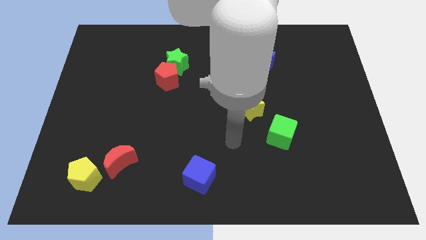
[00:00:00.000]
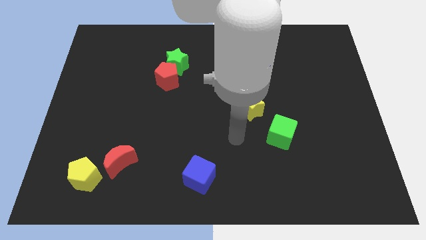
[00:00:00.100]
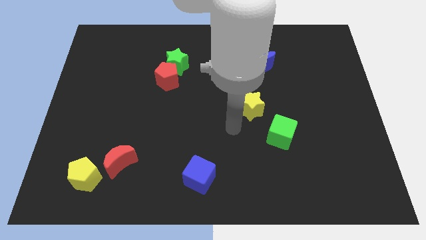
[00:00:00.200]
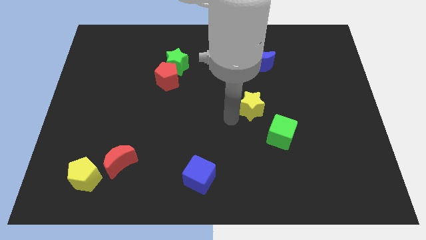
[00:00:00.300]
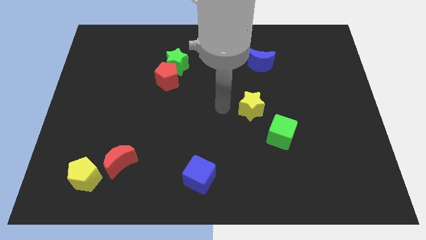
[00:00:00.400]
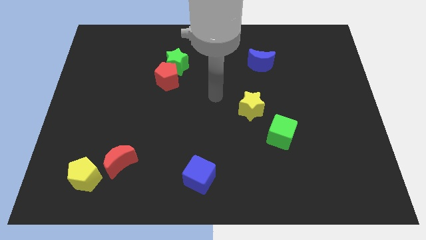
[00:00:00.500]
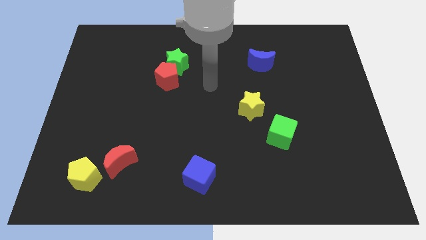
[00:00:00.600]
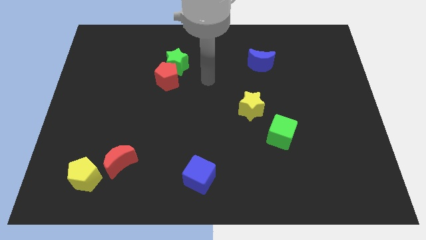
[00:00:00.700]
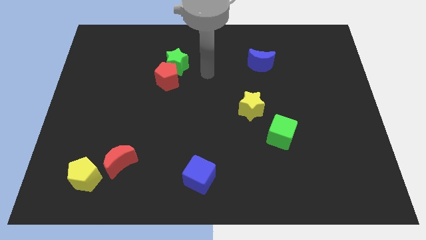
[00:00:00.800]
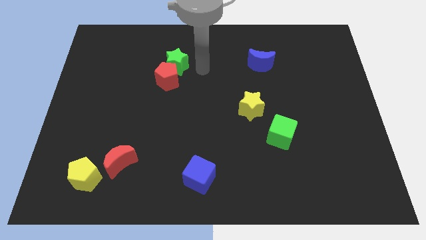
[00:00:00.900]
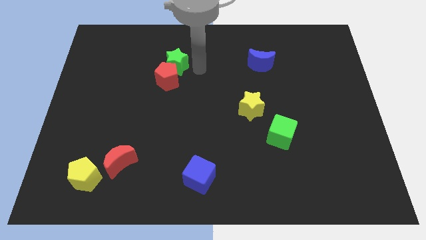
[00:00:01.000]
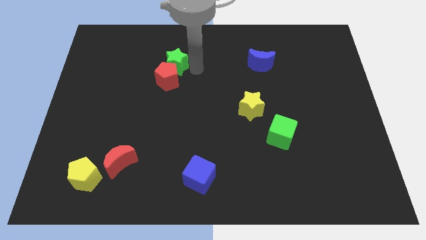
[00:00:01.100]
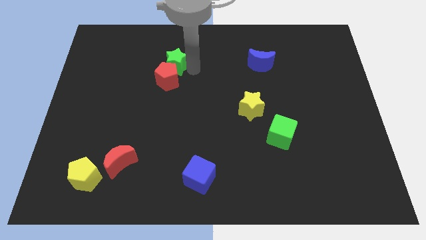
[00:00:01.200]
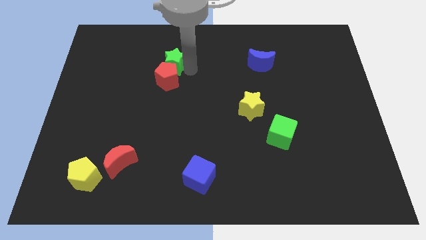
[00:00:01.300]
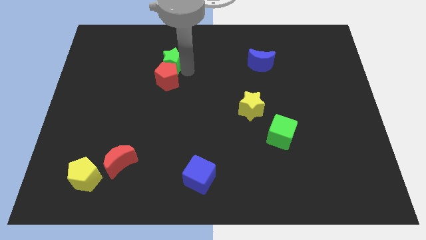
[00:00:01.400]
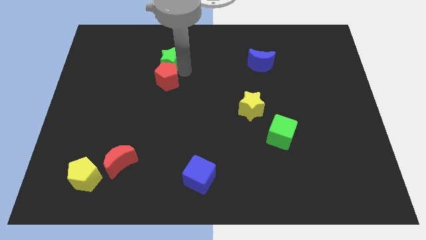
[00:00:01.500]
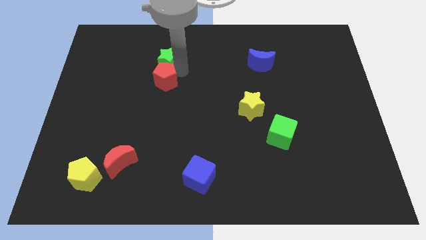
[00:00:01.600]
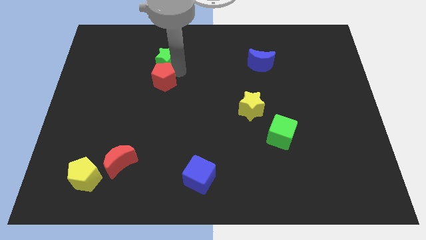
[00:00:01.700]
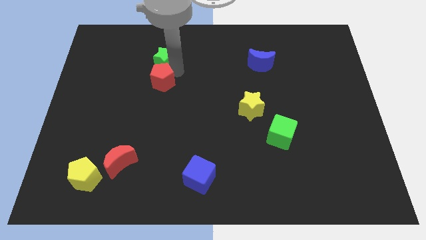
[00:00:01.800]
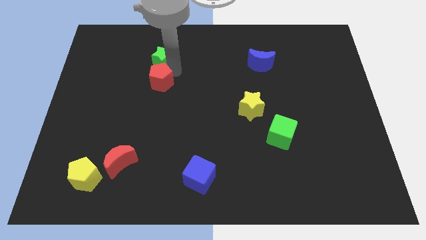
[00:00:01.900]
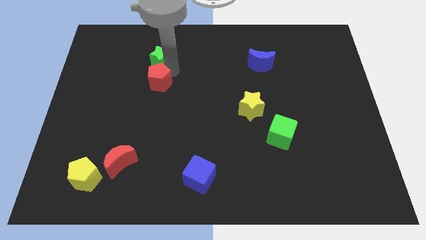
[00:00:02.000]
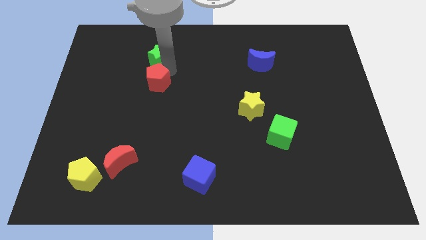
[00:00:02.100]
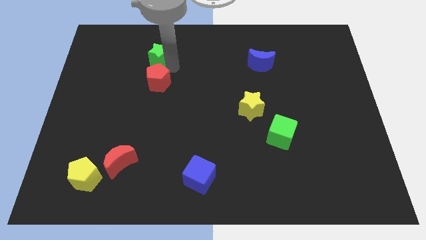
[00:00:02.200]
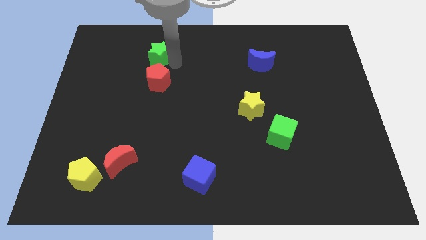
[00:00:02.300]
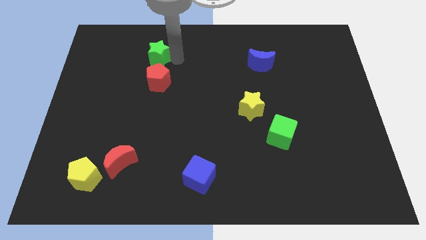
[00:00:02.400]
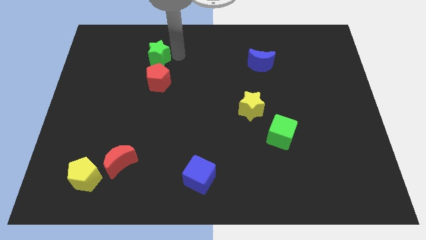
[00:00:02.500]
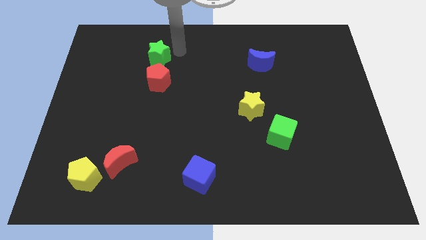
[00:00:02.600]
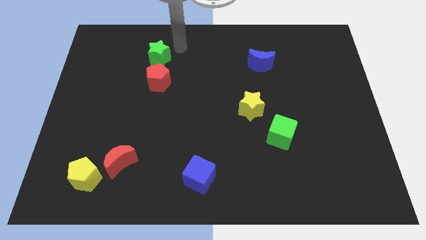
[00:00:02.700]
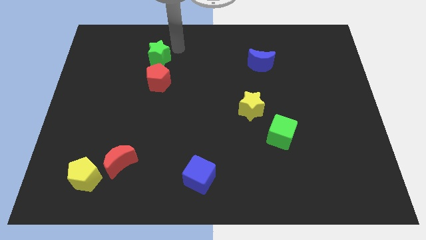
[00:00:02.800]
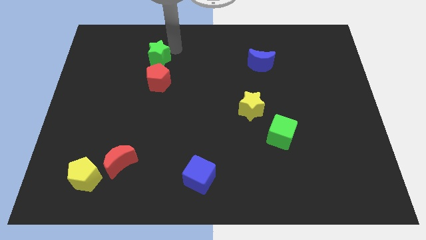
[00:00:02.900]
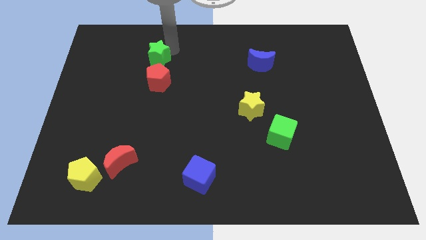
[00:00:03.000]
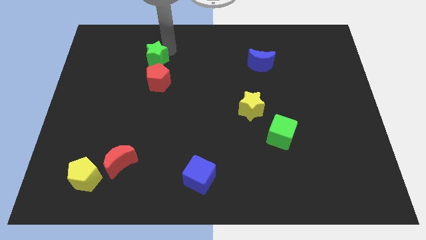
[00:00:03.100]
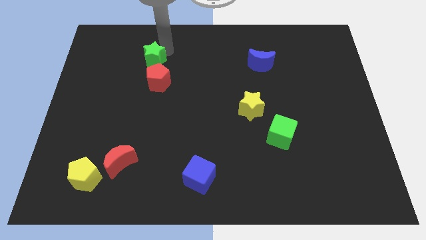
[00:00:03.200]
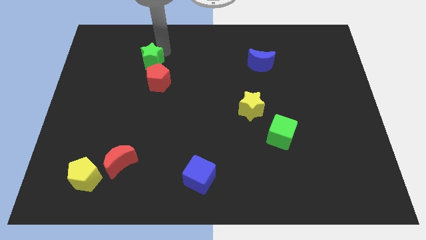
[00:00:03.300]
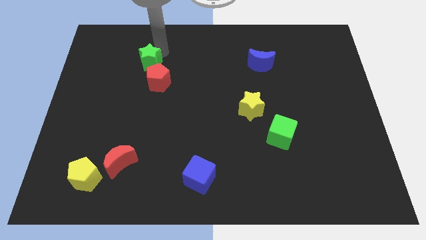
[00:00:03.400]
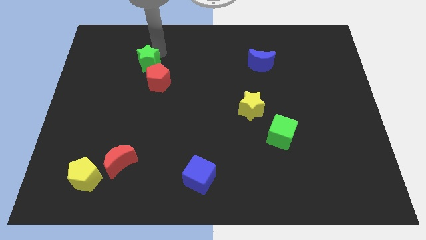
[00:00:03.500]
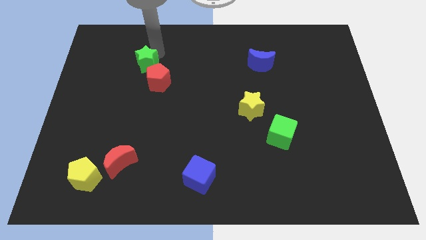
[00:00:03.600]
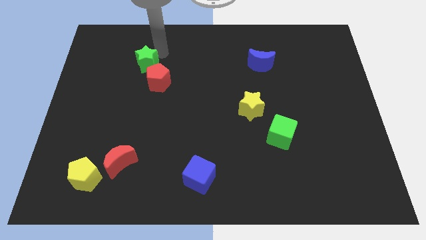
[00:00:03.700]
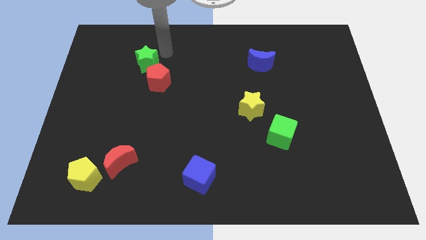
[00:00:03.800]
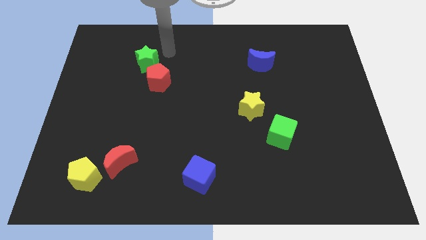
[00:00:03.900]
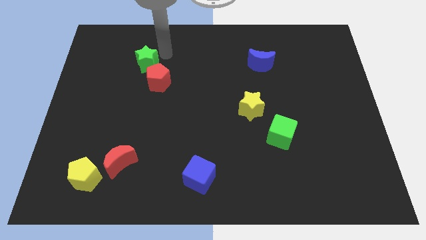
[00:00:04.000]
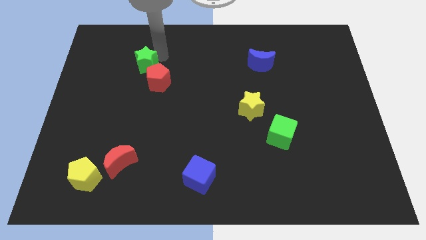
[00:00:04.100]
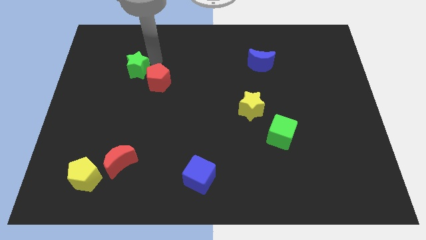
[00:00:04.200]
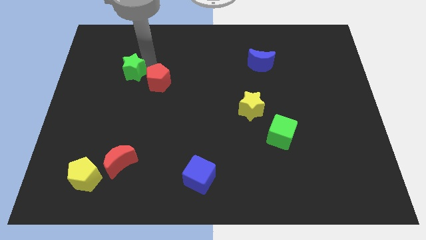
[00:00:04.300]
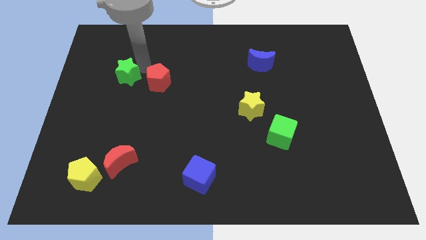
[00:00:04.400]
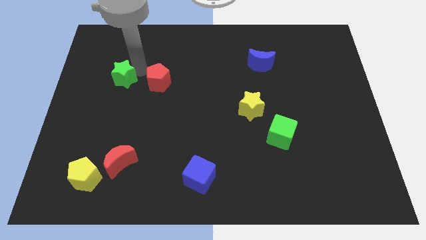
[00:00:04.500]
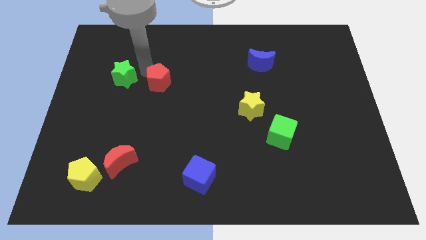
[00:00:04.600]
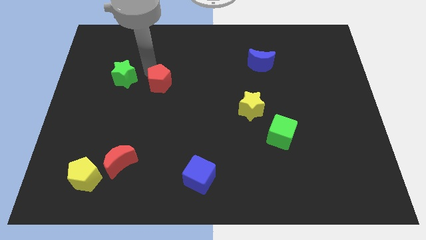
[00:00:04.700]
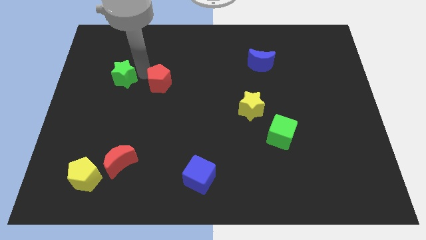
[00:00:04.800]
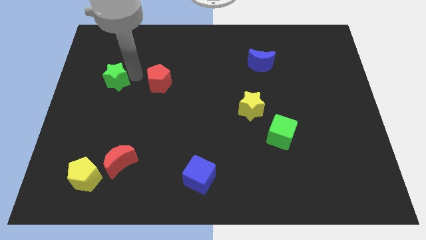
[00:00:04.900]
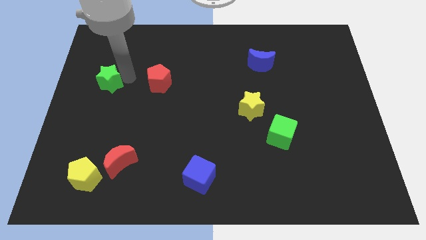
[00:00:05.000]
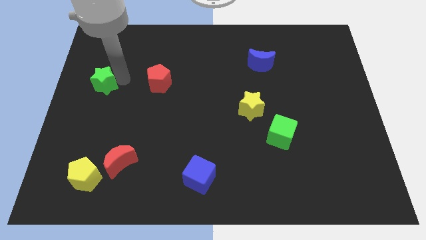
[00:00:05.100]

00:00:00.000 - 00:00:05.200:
slide the green star to the center left

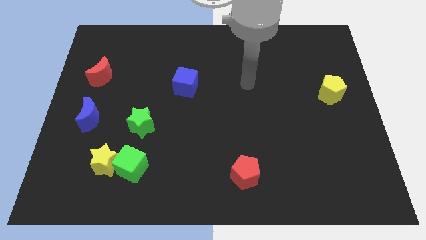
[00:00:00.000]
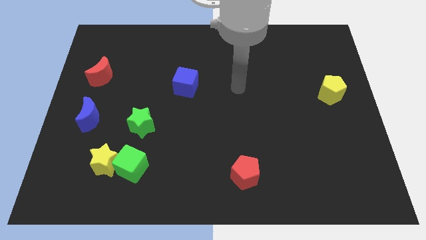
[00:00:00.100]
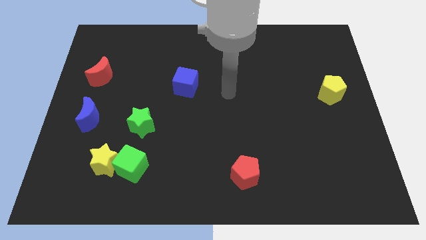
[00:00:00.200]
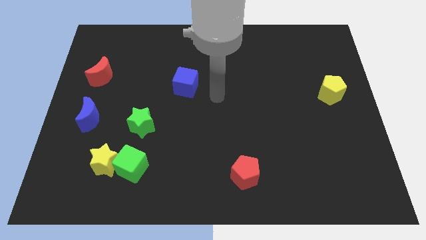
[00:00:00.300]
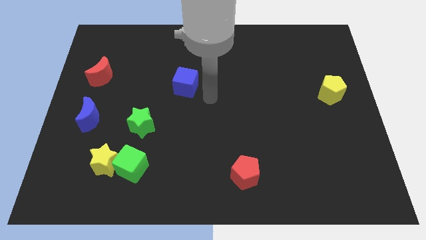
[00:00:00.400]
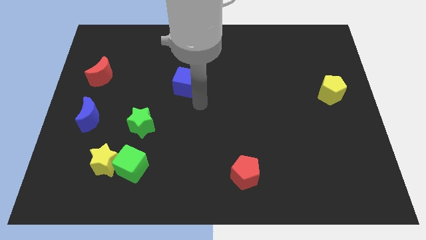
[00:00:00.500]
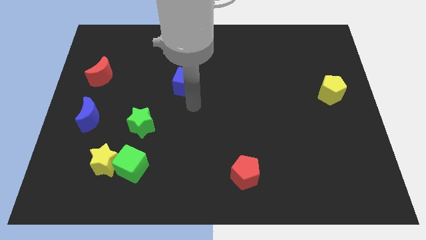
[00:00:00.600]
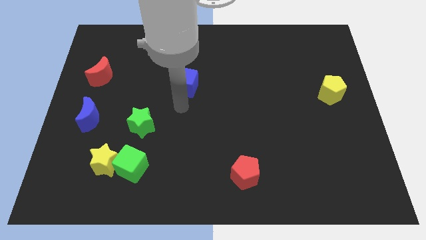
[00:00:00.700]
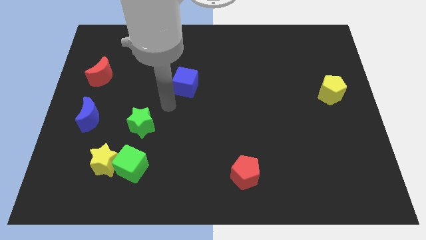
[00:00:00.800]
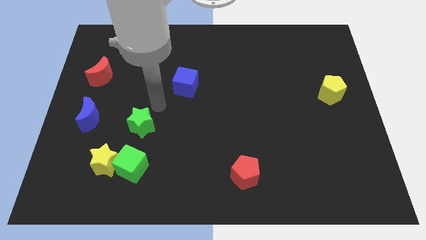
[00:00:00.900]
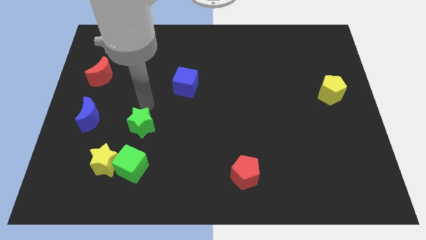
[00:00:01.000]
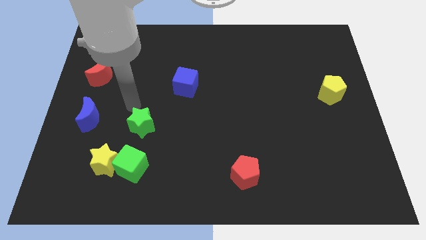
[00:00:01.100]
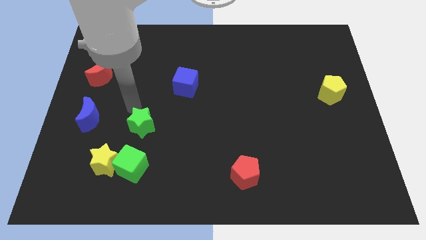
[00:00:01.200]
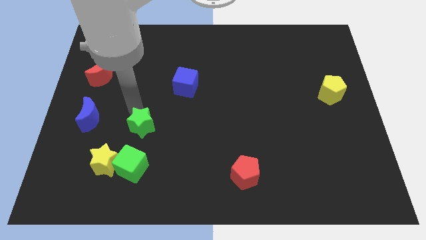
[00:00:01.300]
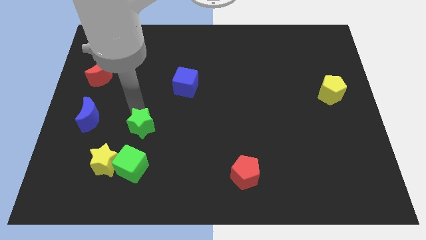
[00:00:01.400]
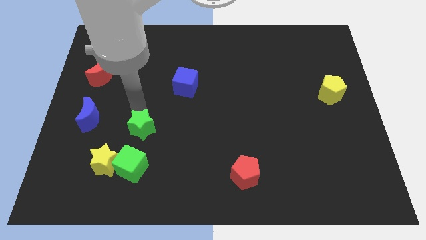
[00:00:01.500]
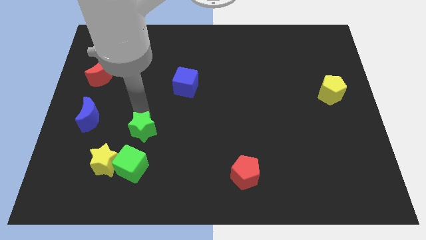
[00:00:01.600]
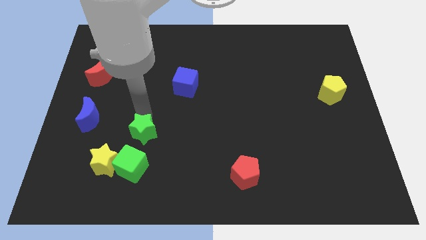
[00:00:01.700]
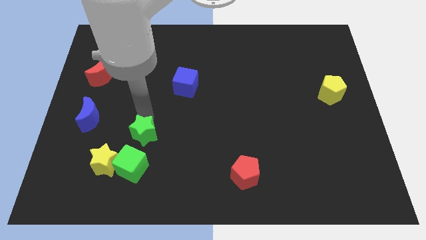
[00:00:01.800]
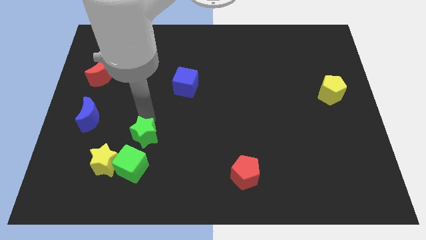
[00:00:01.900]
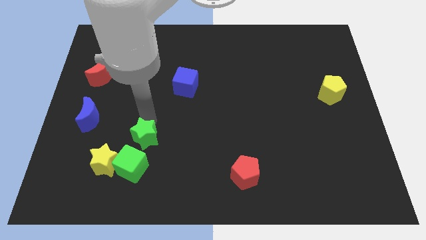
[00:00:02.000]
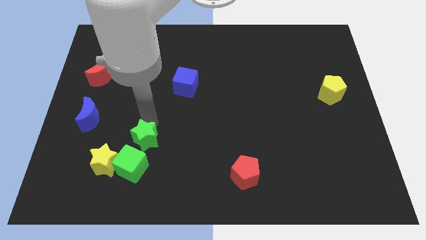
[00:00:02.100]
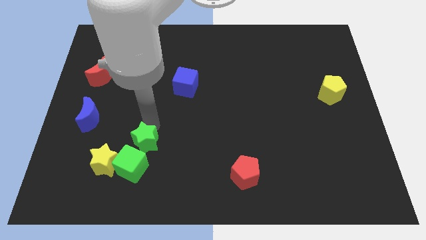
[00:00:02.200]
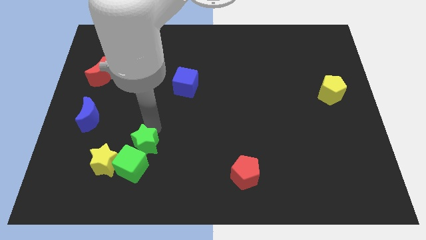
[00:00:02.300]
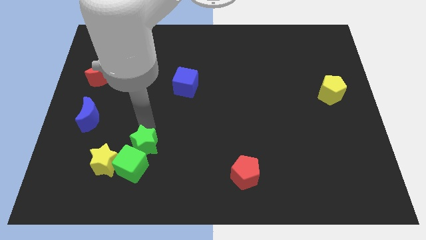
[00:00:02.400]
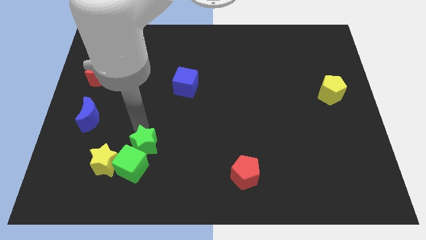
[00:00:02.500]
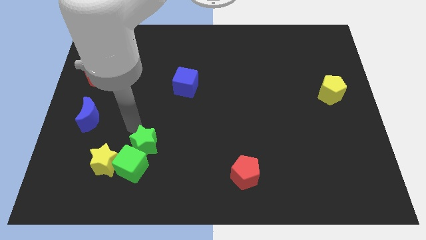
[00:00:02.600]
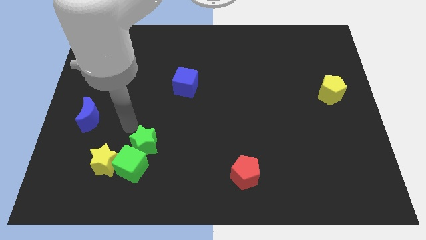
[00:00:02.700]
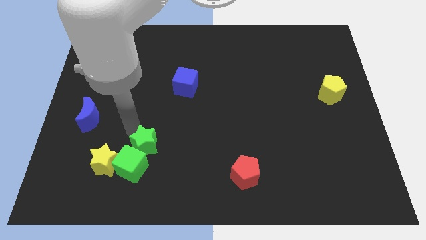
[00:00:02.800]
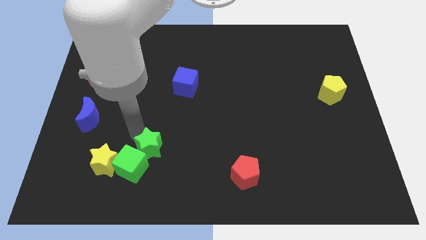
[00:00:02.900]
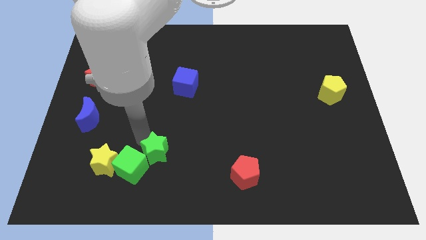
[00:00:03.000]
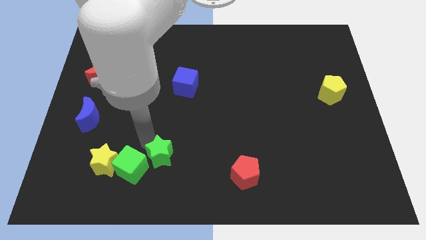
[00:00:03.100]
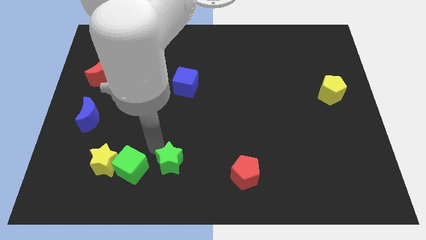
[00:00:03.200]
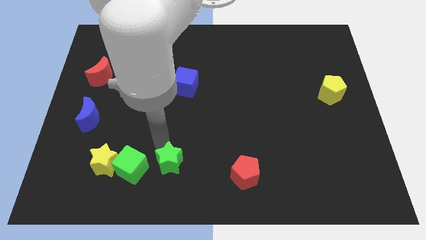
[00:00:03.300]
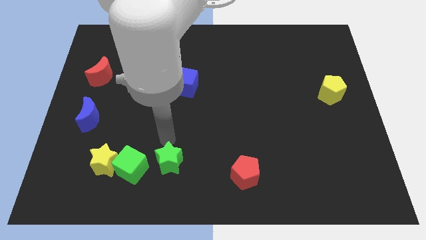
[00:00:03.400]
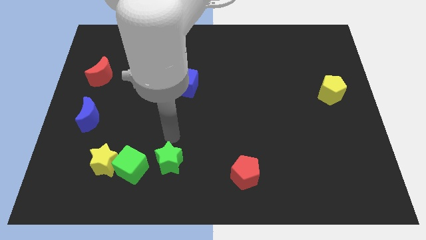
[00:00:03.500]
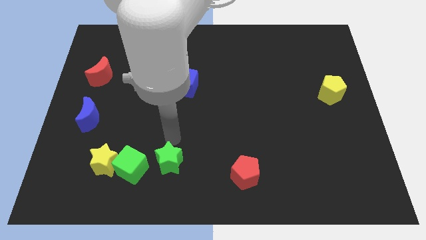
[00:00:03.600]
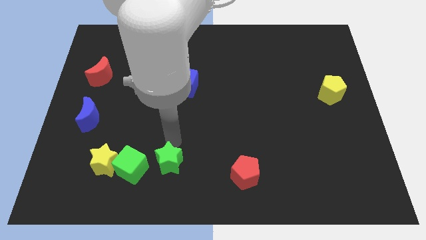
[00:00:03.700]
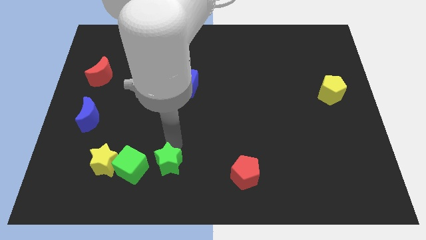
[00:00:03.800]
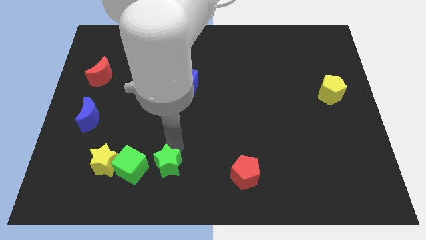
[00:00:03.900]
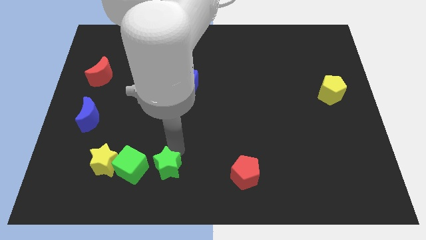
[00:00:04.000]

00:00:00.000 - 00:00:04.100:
slide the green star to the bottom
